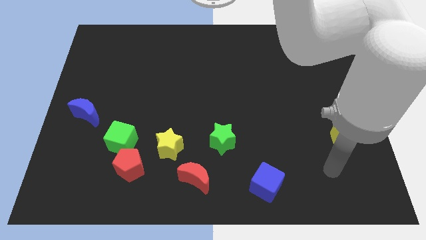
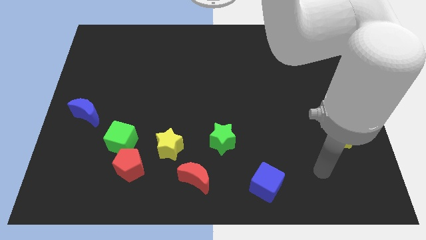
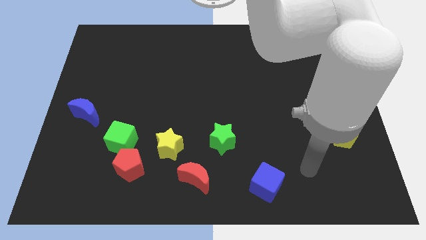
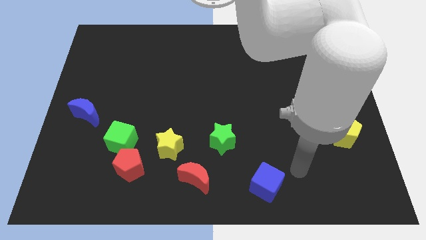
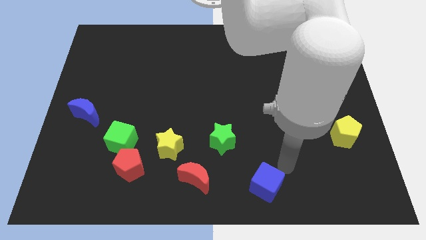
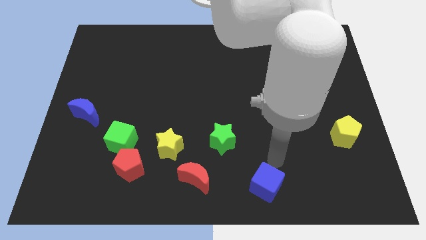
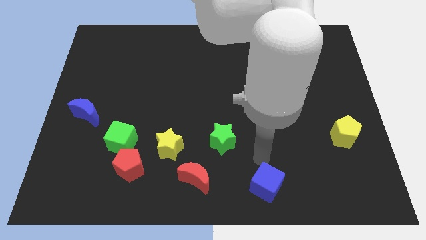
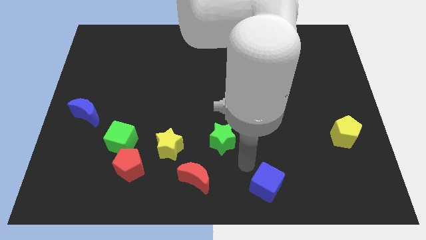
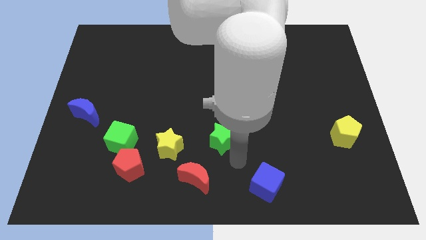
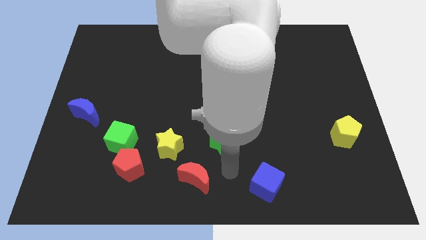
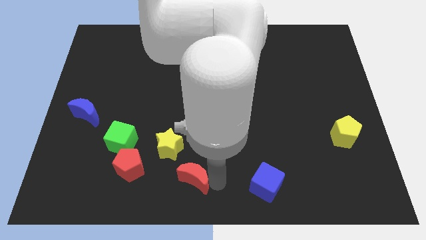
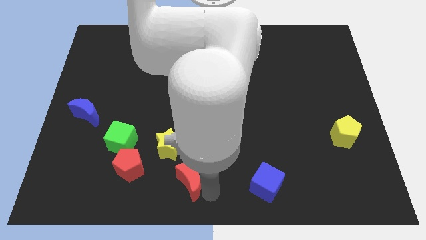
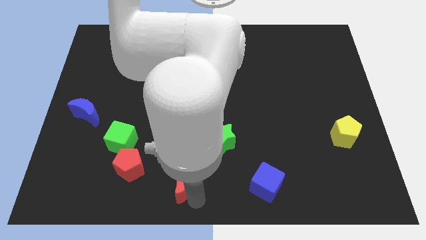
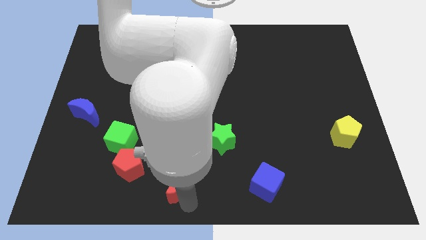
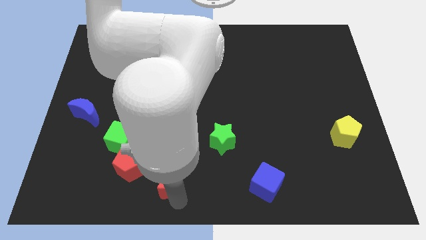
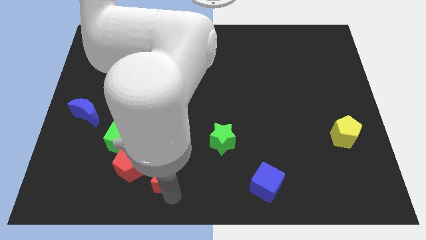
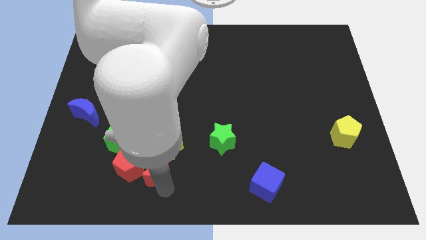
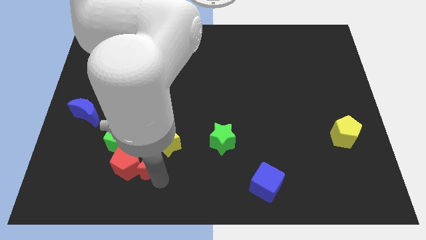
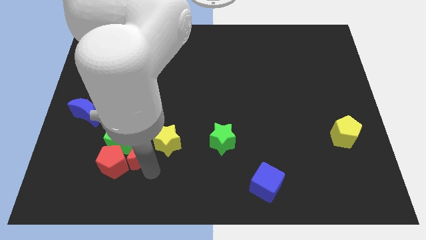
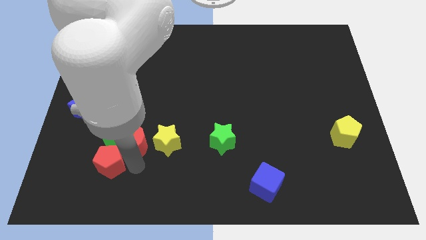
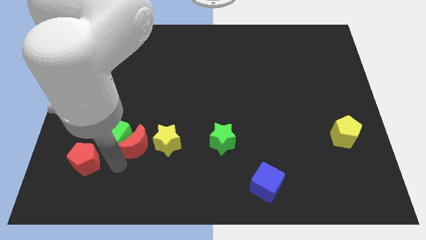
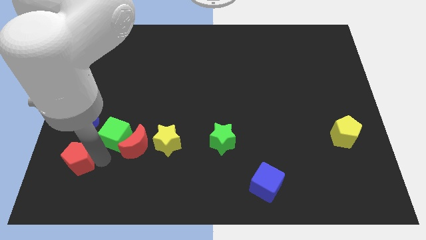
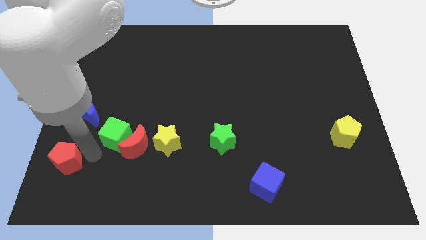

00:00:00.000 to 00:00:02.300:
move the green cube away from the red pentagon

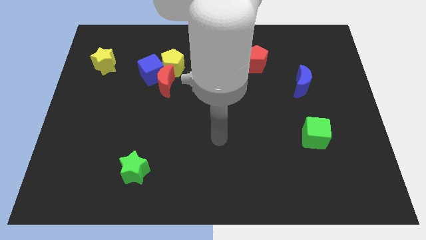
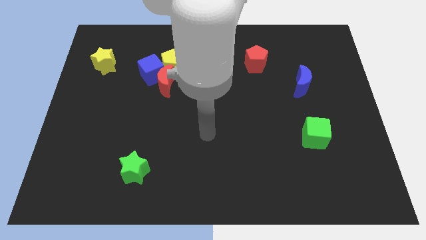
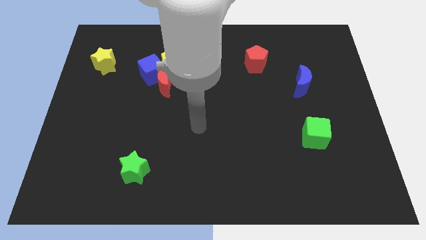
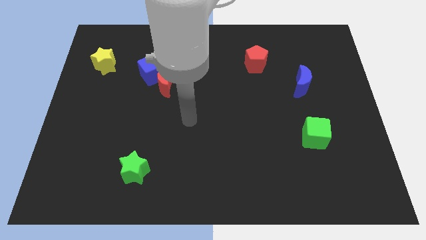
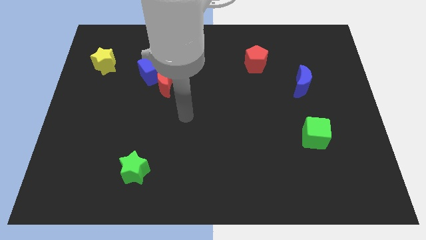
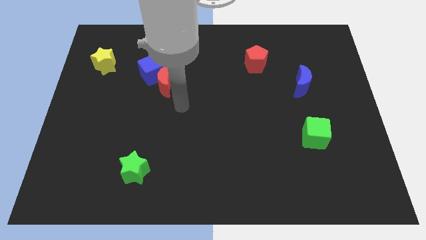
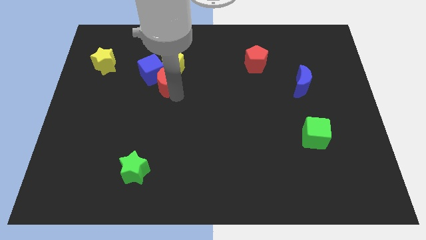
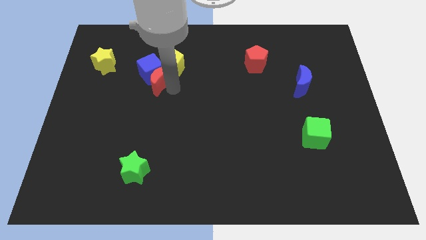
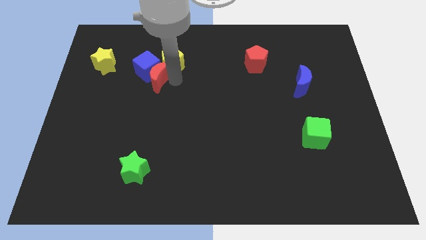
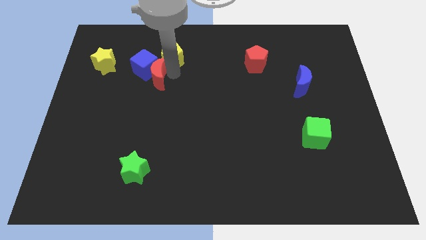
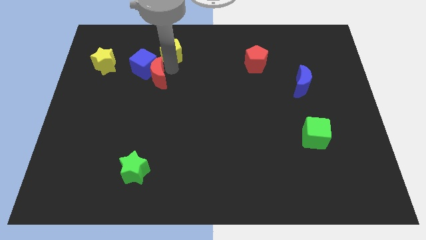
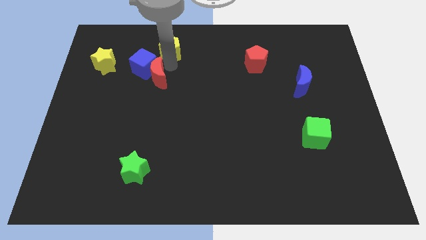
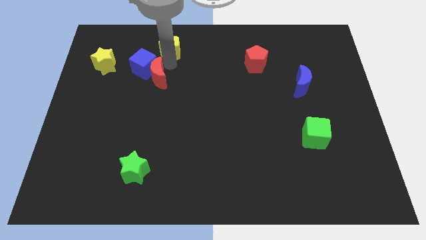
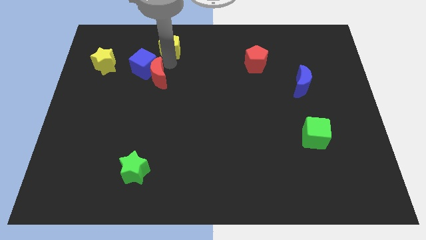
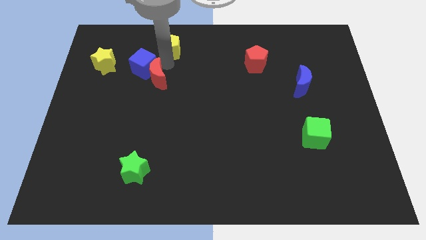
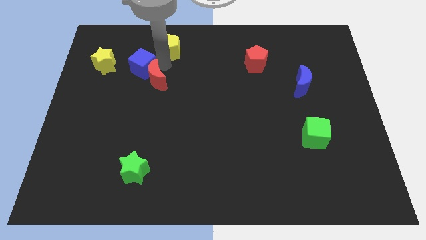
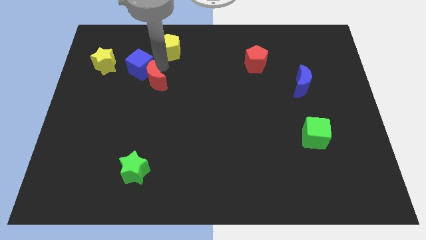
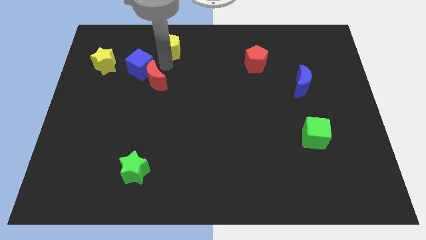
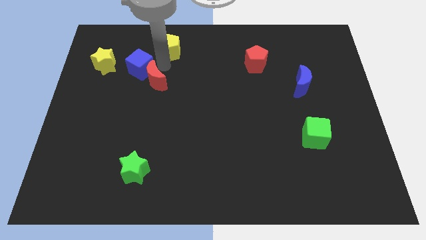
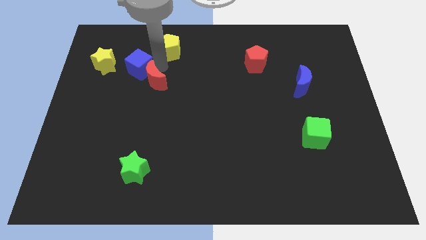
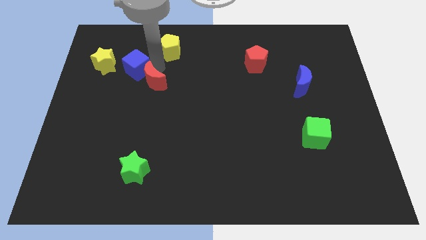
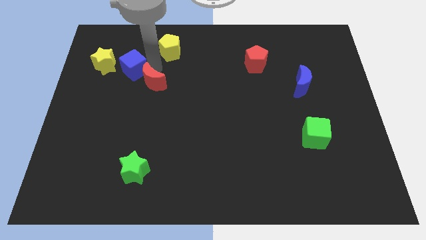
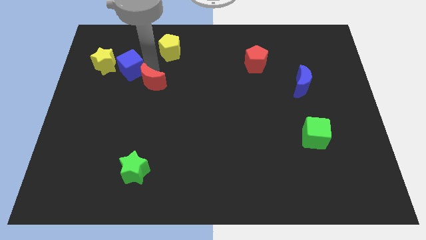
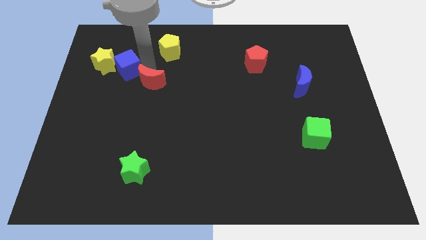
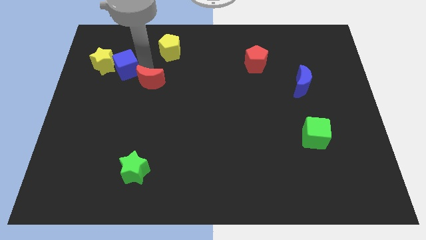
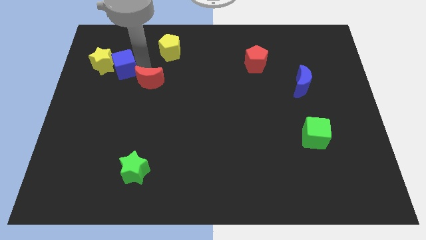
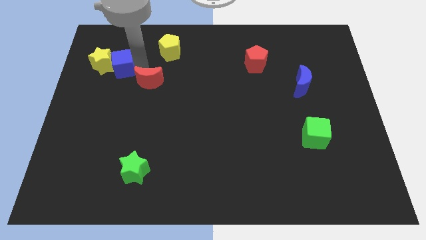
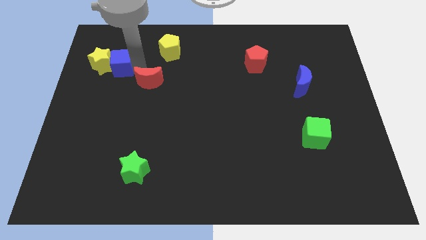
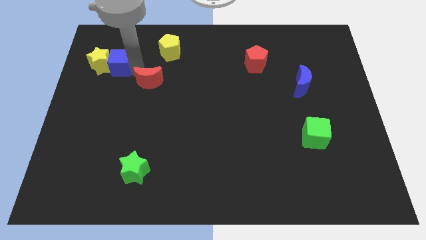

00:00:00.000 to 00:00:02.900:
separate the blue cube from the red moon and yellow pentagon

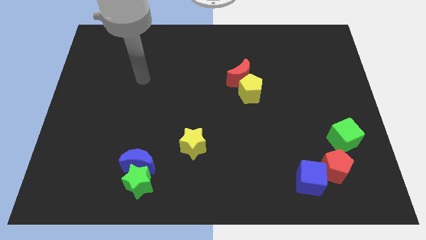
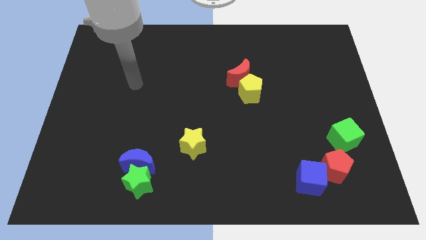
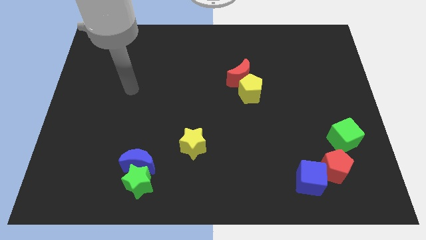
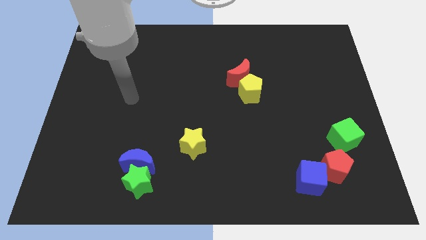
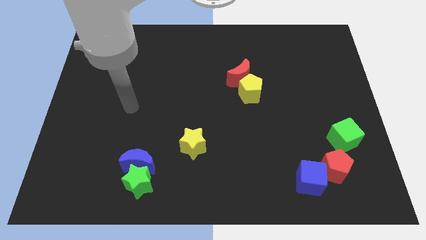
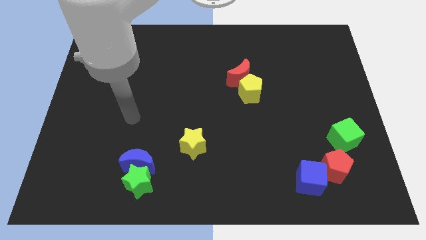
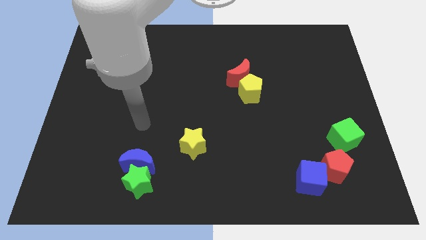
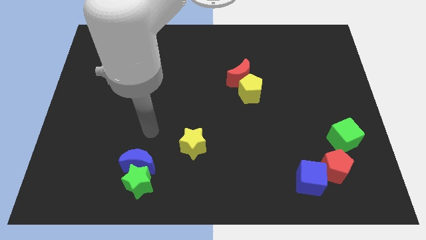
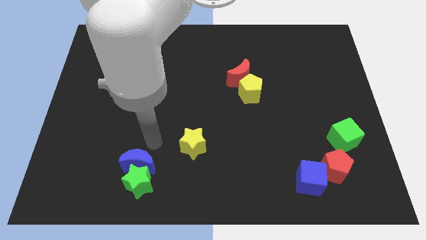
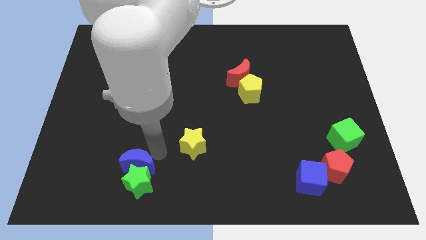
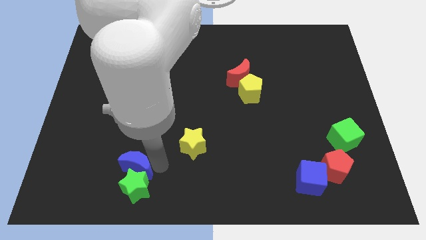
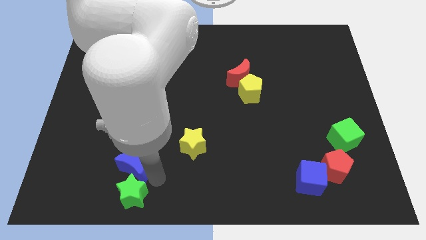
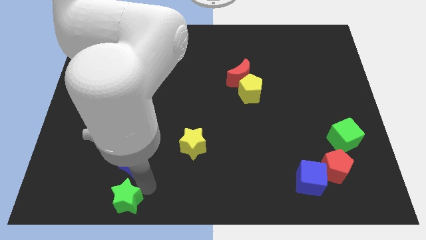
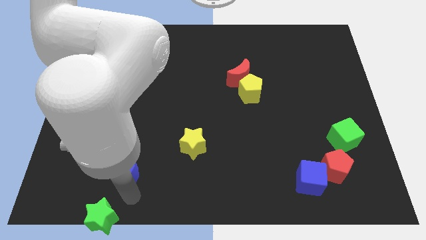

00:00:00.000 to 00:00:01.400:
pull the blue moon apart from the green star

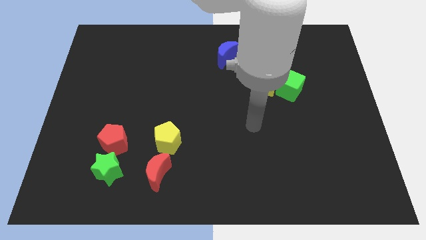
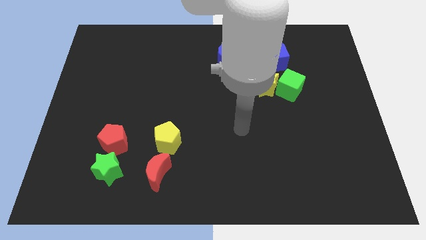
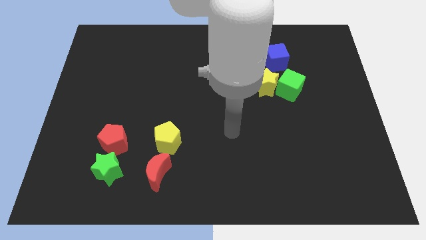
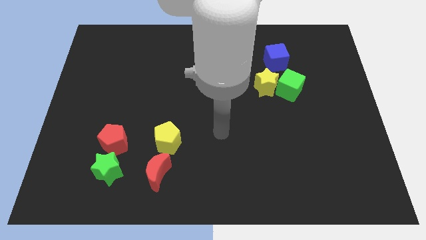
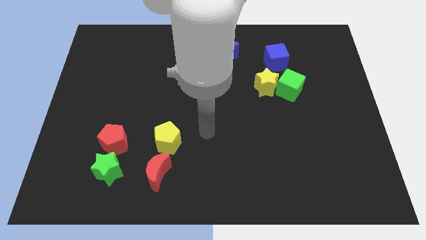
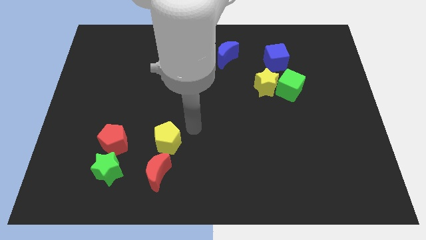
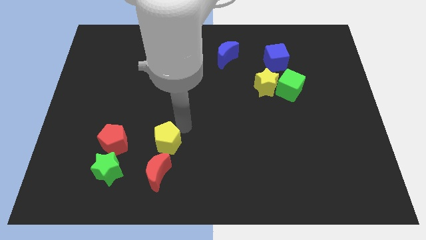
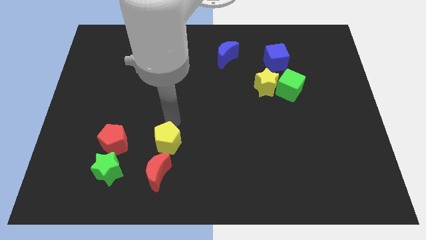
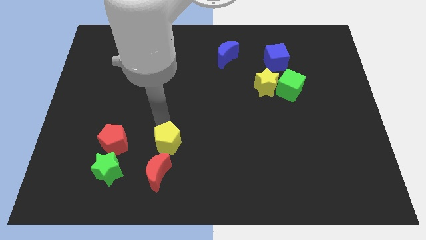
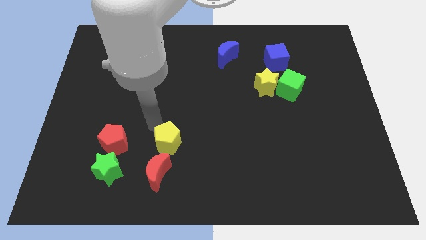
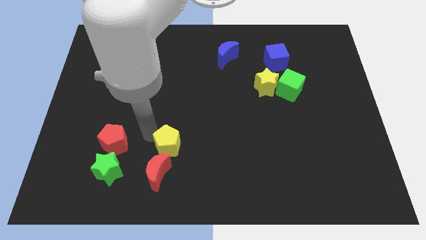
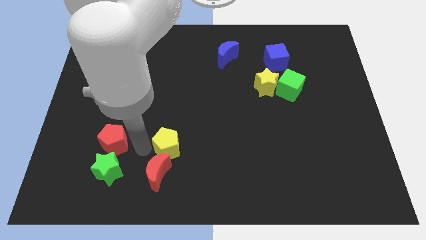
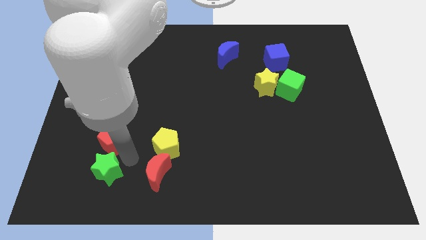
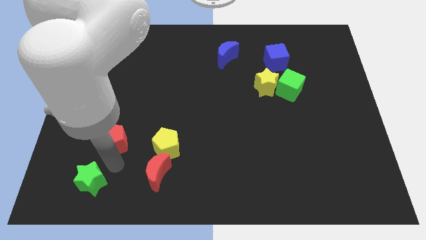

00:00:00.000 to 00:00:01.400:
move the red pentagon away from the green star

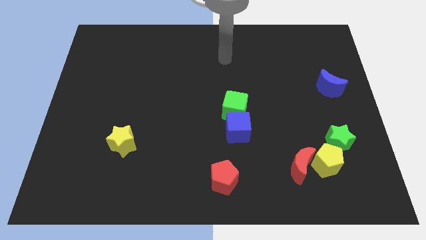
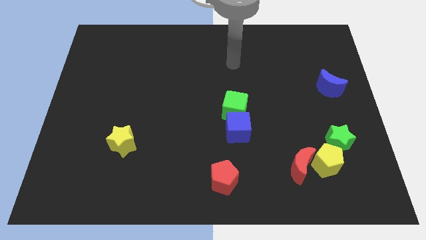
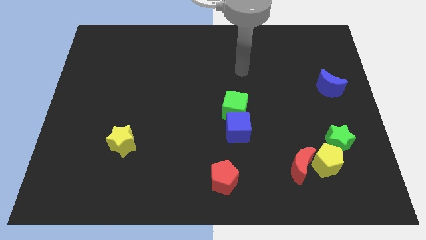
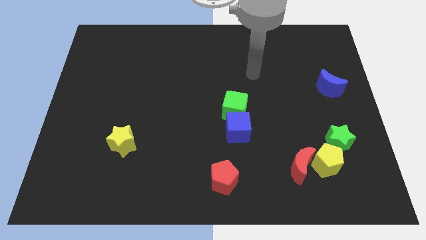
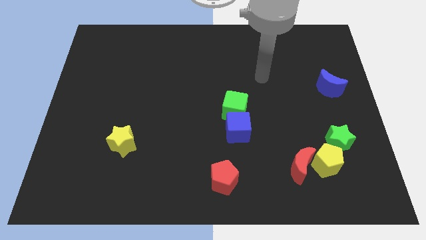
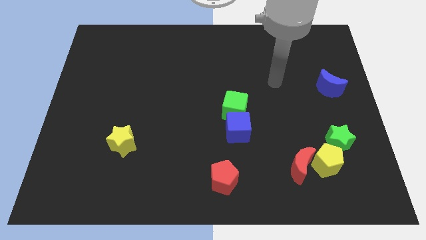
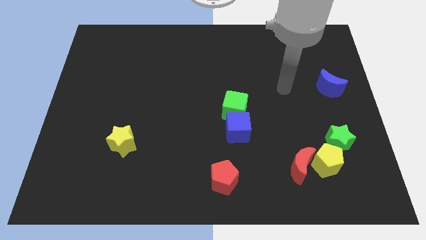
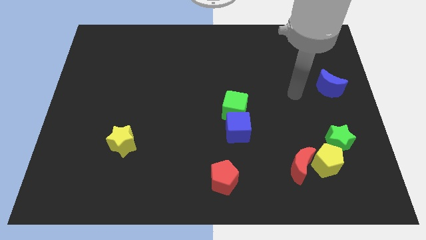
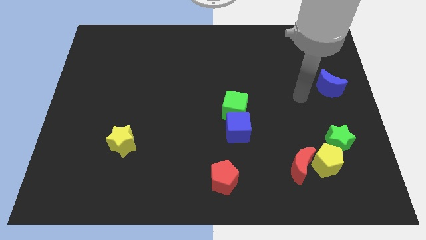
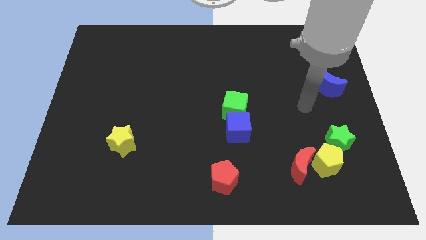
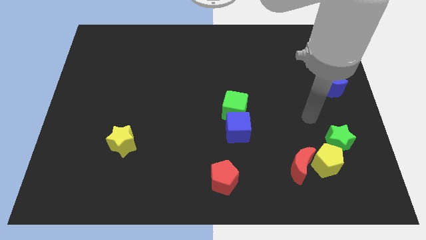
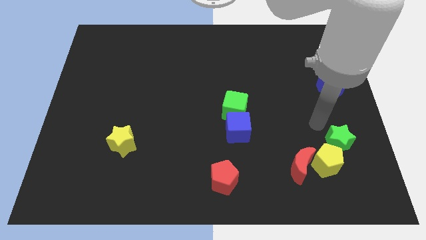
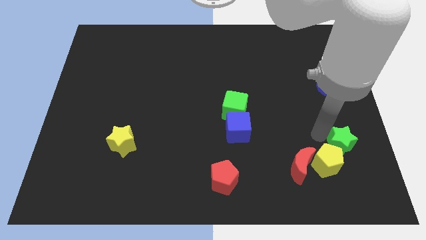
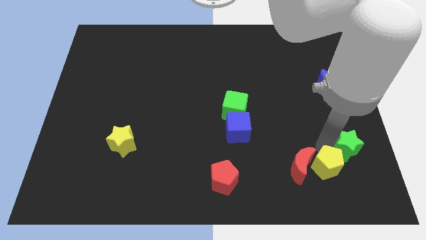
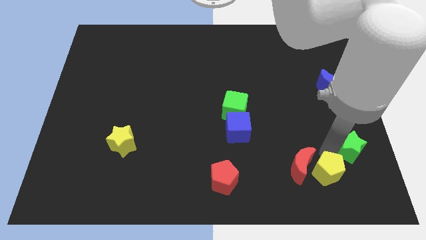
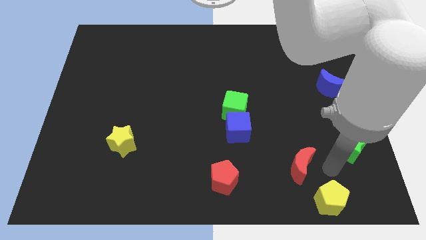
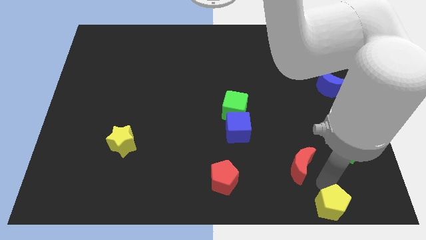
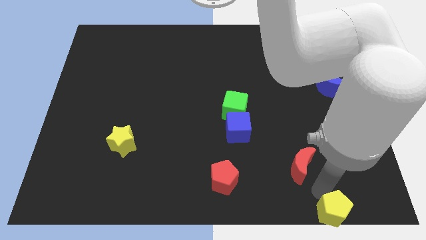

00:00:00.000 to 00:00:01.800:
move the red moon away from the yellow pentagon
